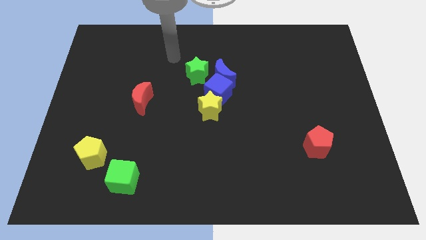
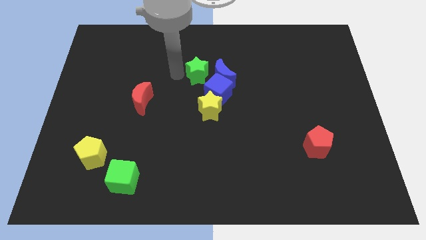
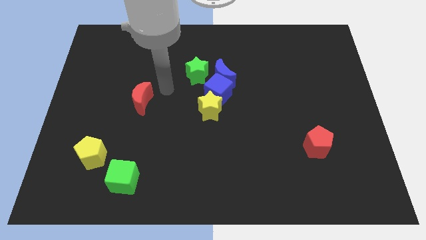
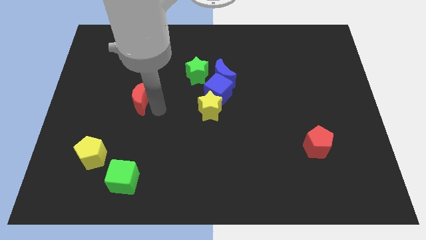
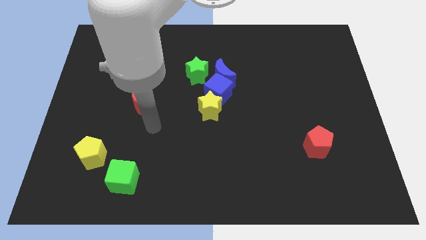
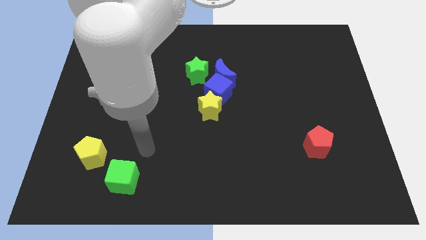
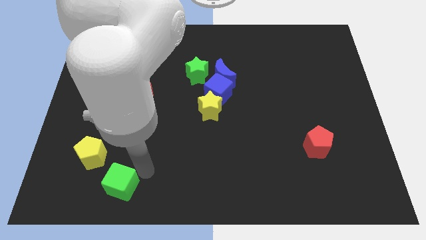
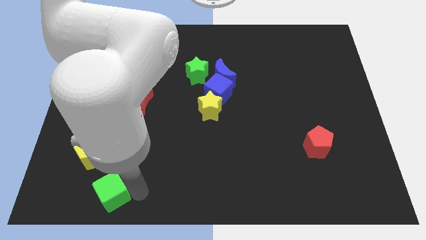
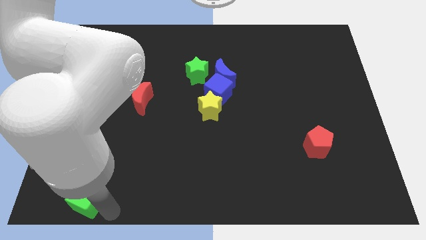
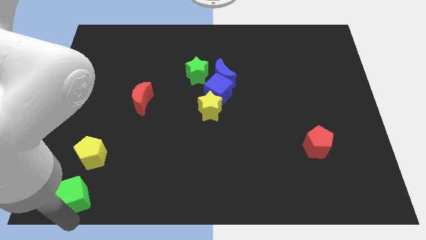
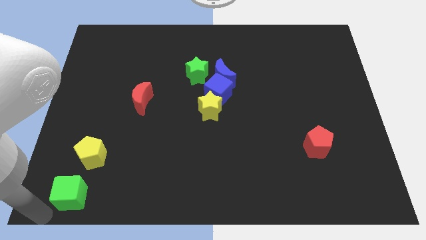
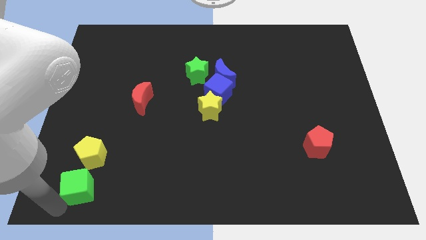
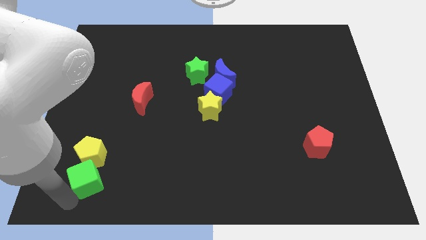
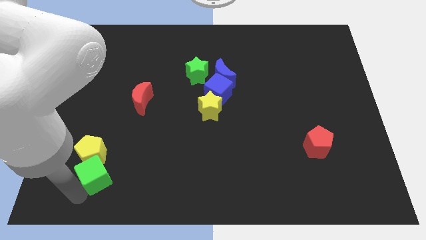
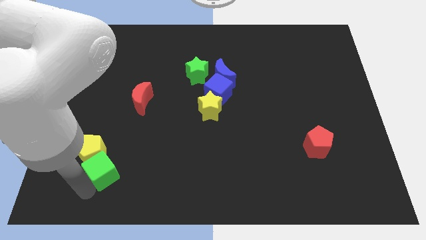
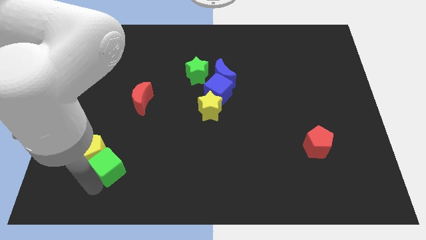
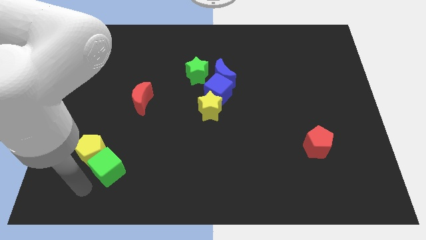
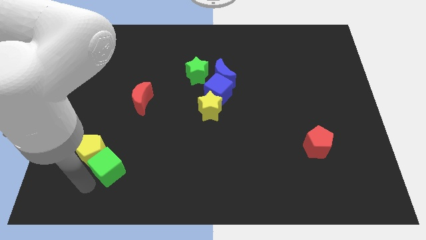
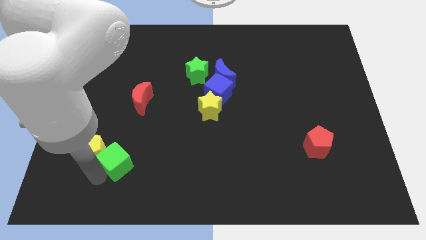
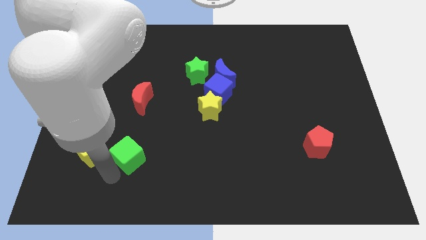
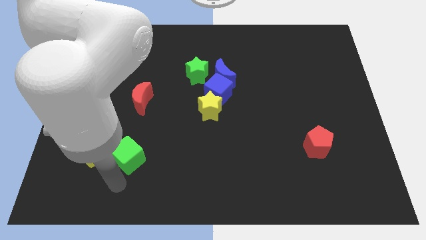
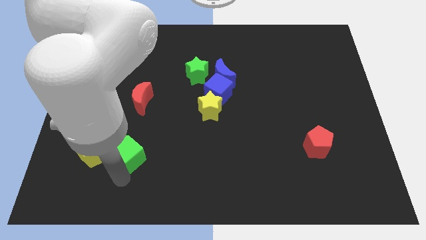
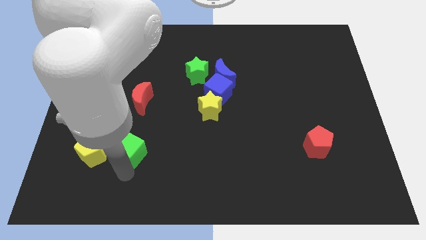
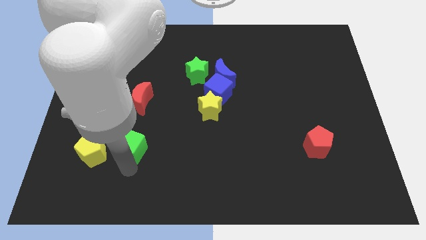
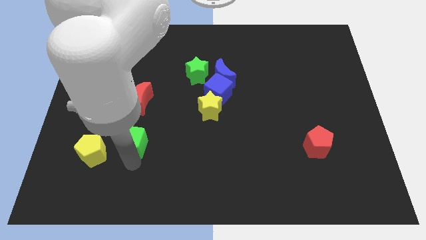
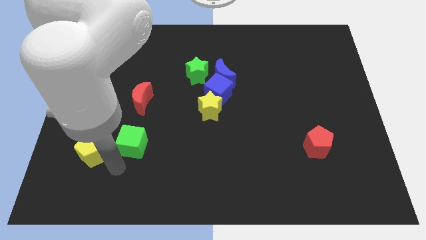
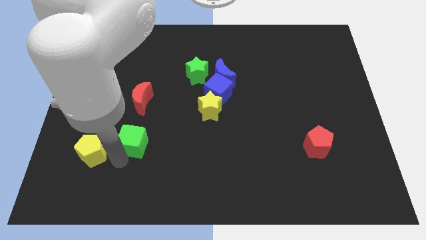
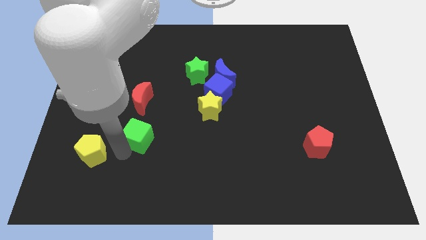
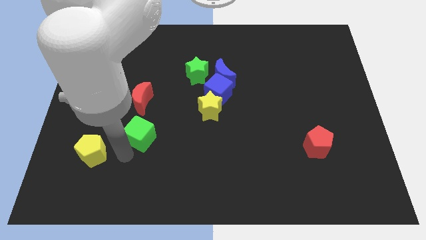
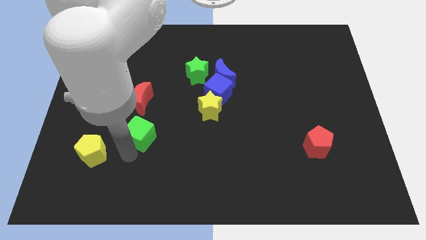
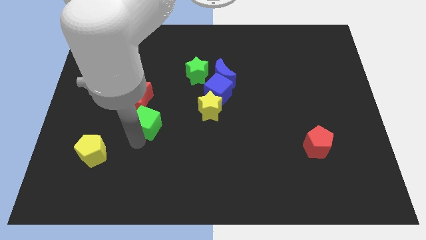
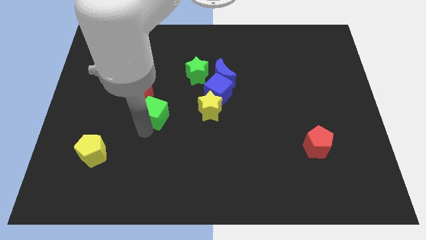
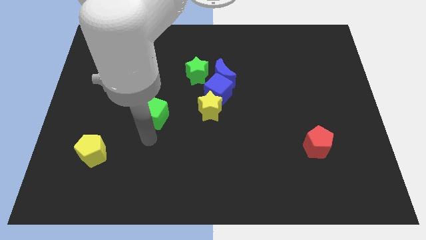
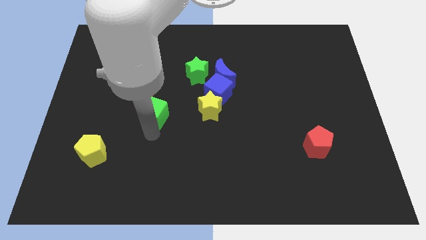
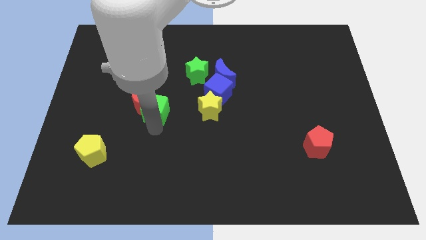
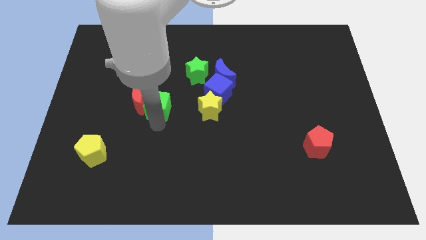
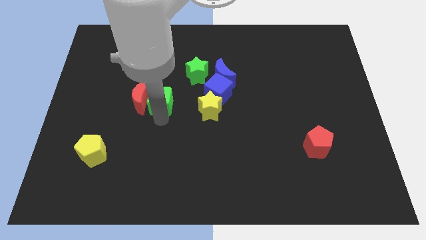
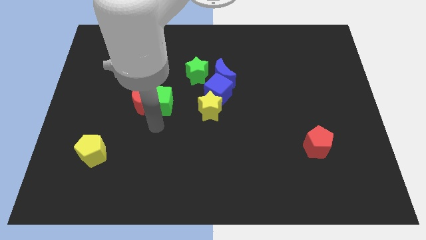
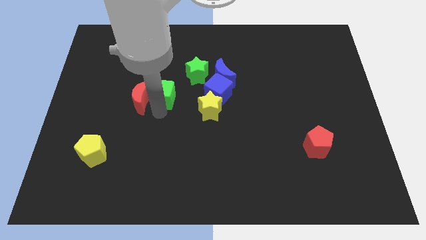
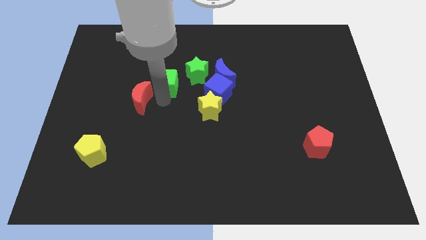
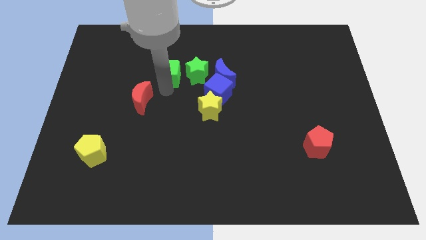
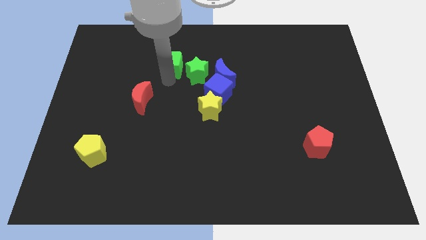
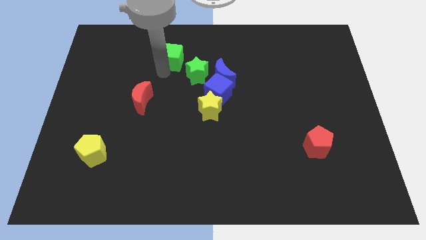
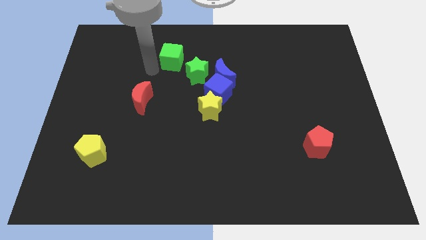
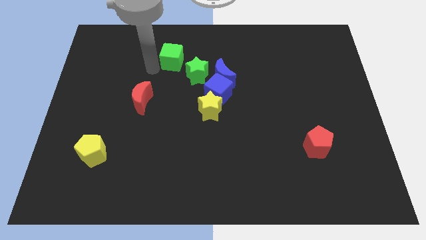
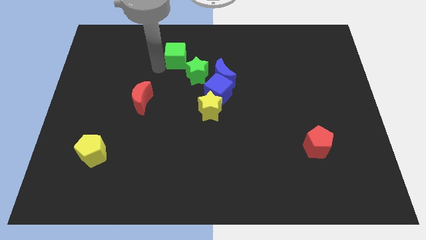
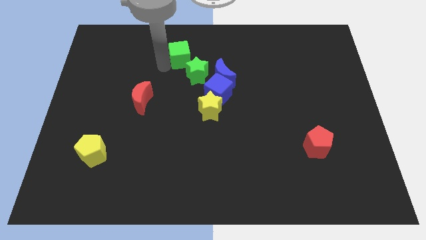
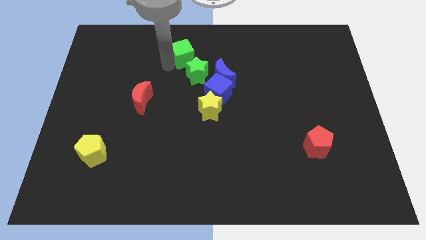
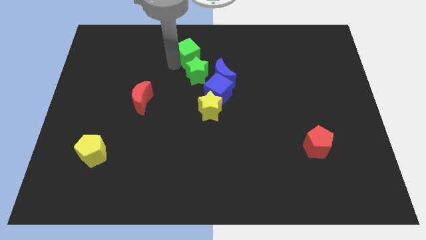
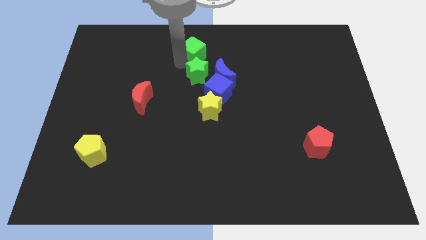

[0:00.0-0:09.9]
slide the green cube to the towards your base

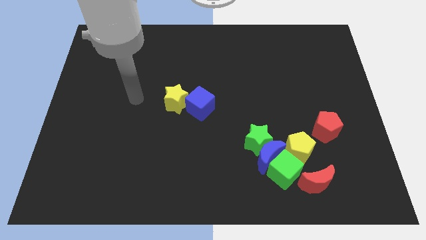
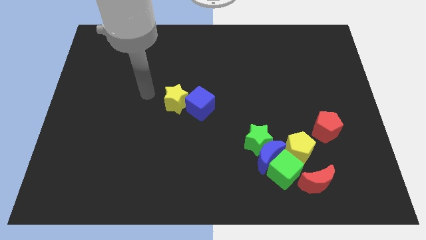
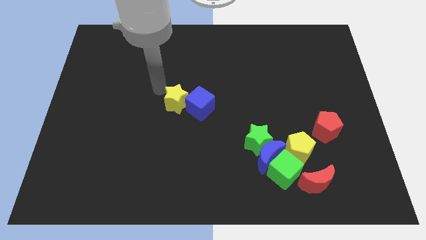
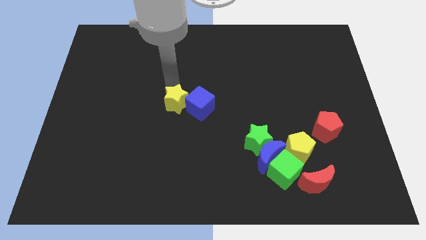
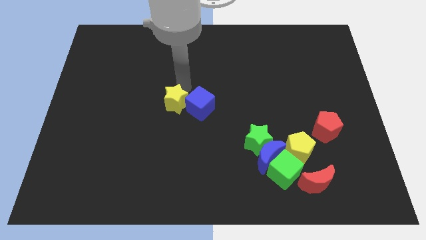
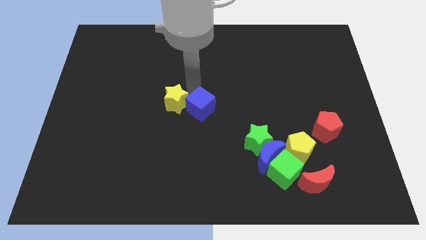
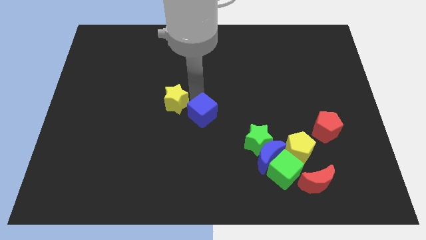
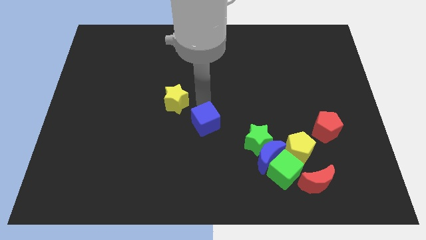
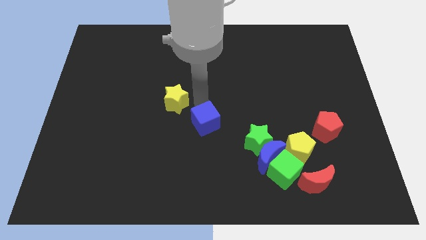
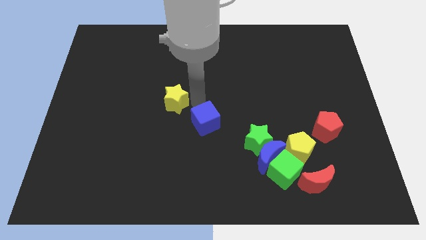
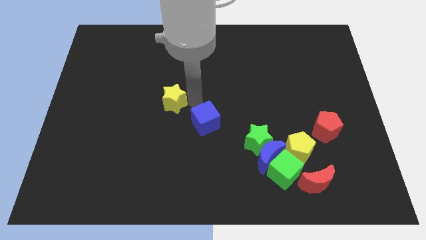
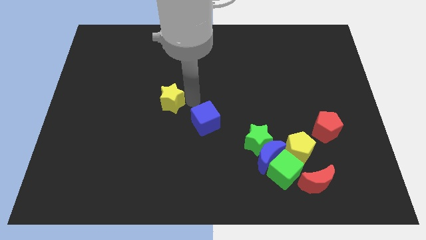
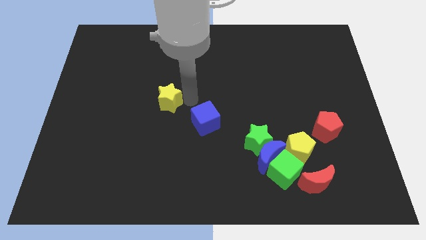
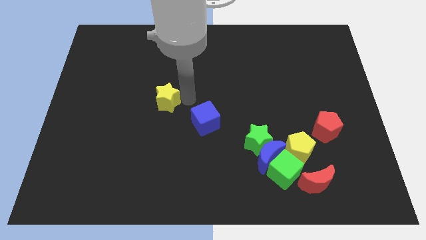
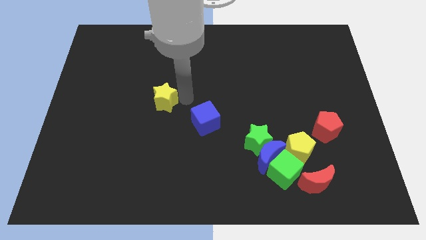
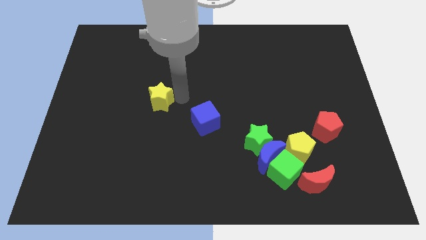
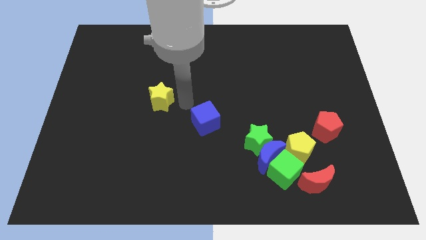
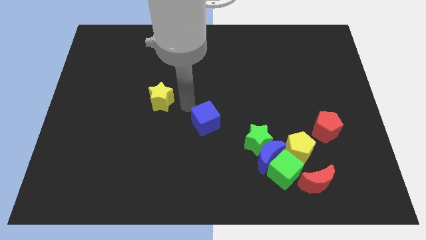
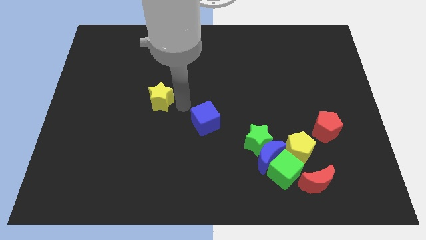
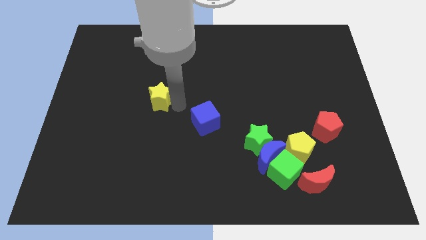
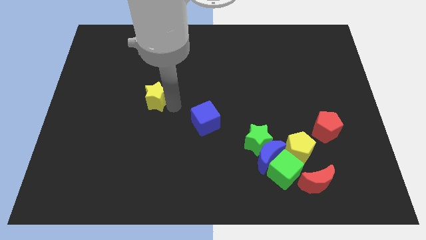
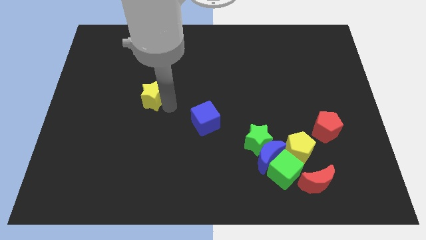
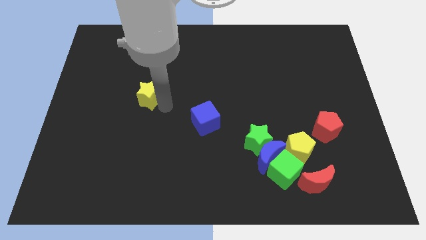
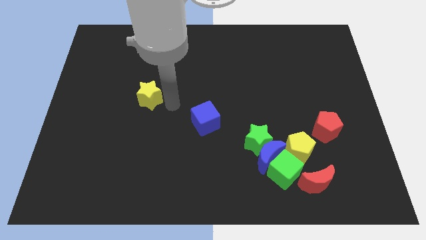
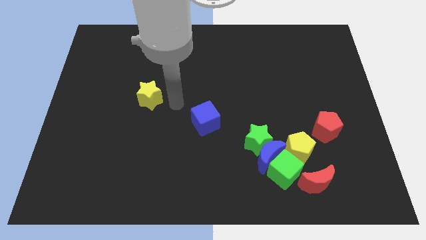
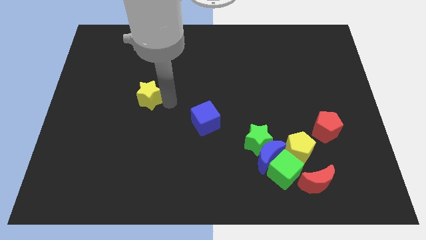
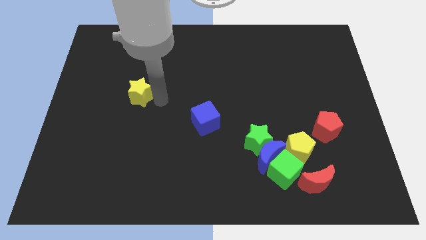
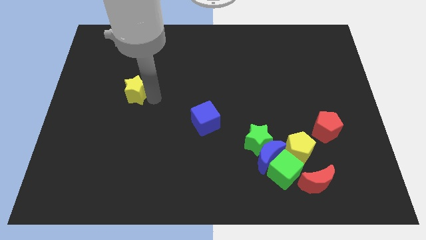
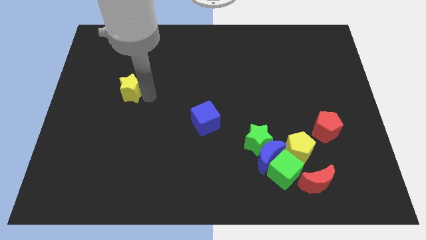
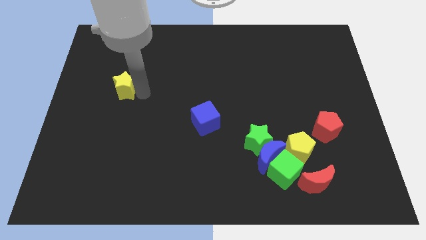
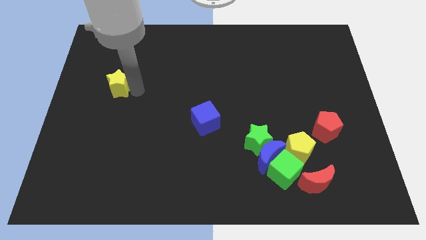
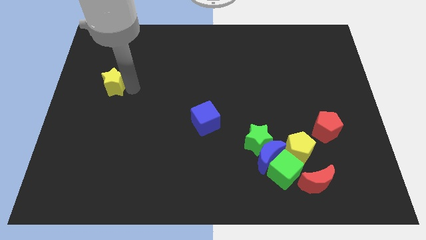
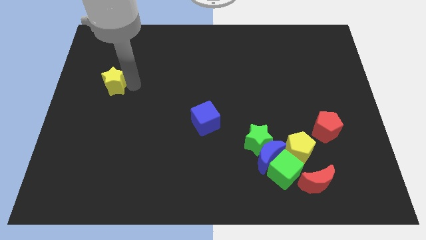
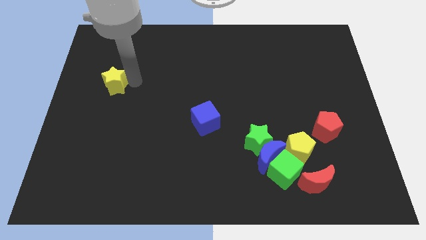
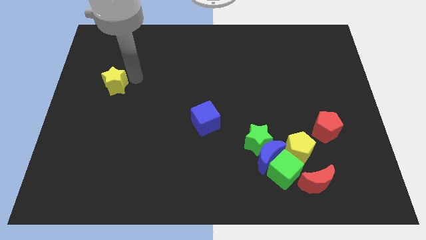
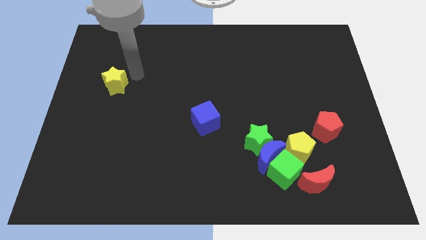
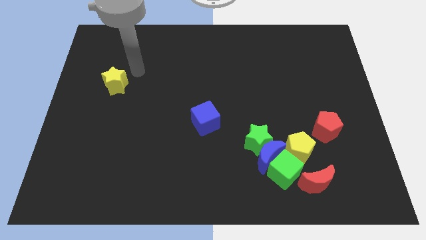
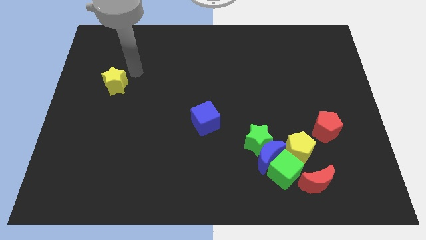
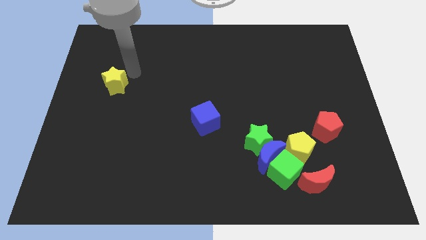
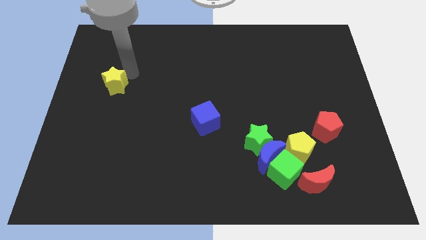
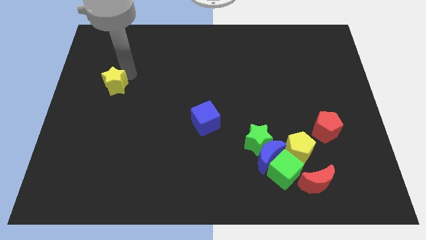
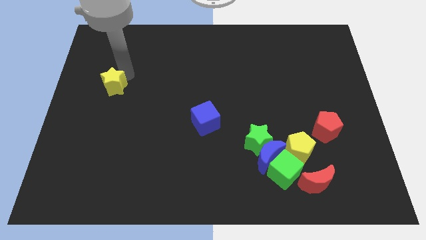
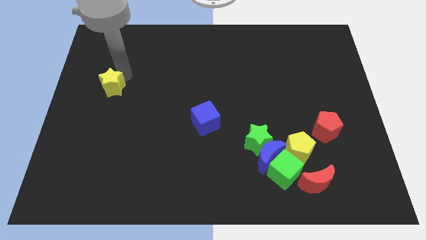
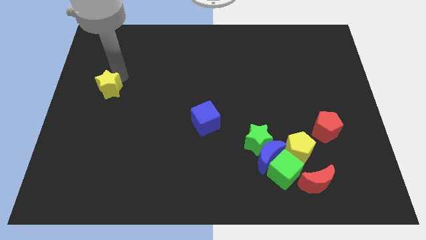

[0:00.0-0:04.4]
move the yellow star to the left side
